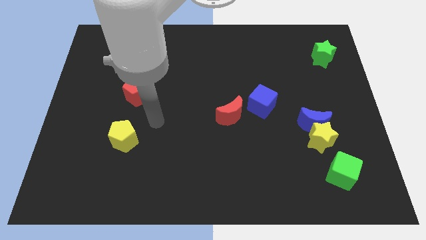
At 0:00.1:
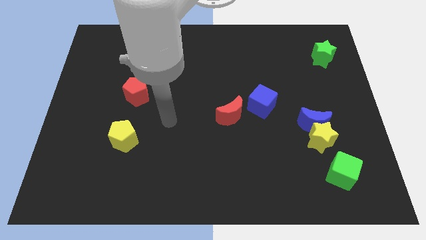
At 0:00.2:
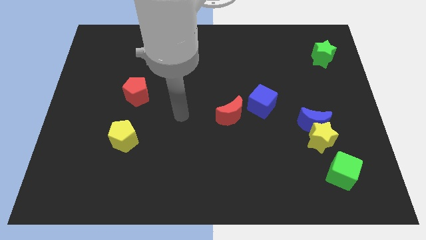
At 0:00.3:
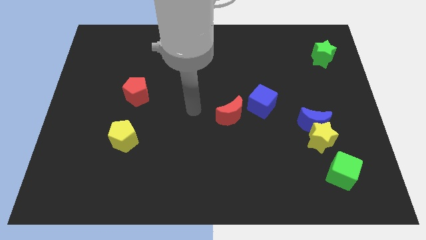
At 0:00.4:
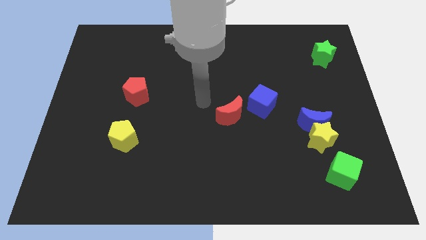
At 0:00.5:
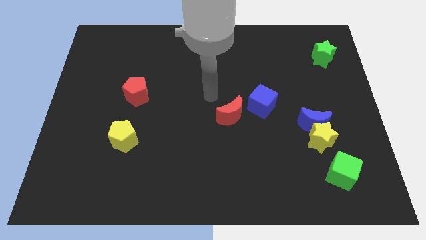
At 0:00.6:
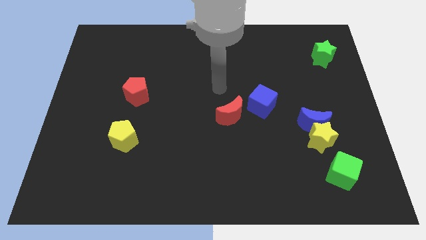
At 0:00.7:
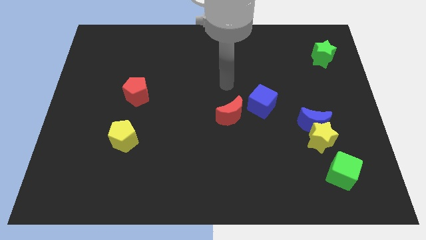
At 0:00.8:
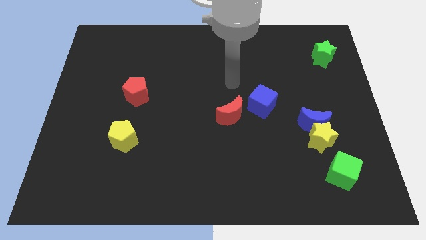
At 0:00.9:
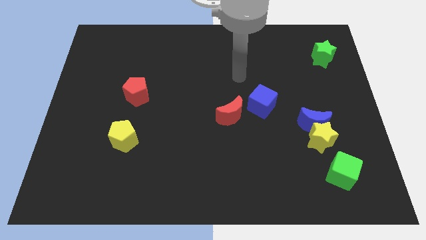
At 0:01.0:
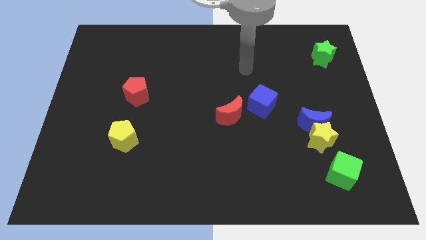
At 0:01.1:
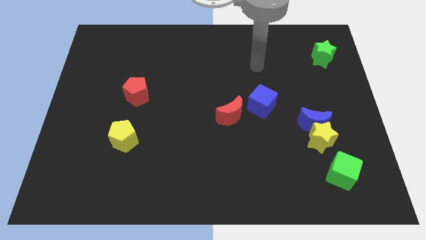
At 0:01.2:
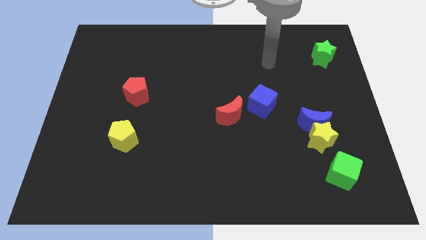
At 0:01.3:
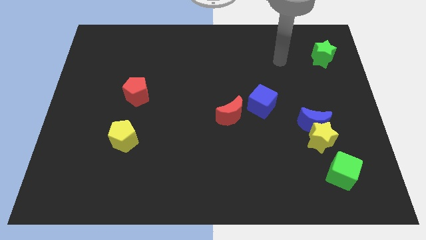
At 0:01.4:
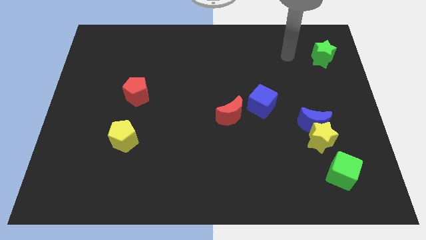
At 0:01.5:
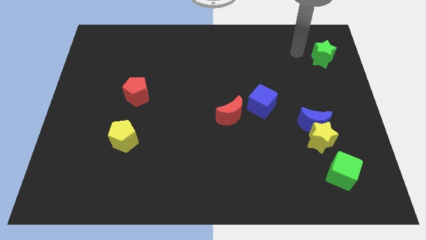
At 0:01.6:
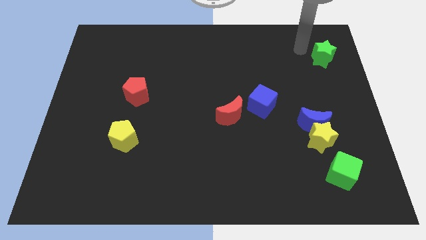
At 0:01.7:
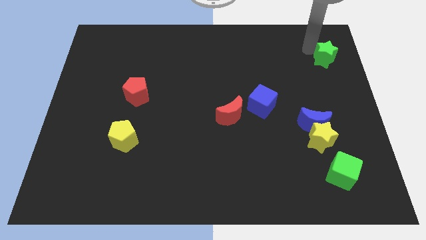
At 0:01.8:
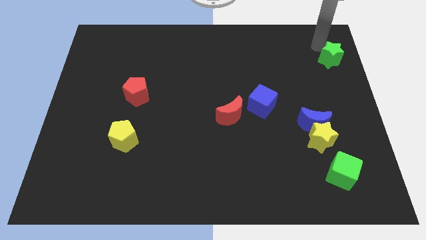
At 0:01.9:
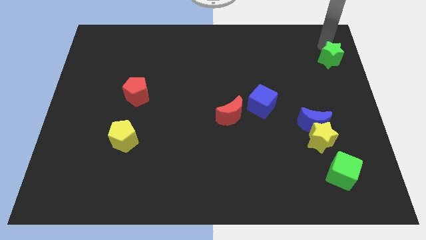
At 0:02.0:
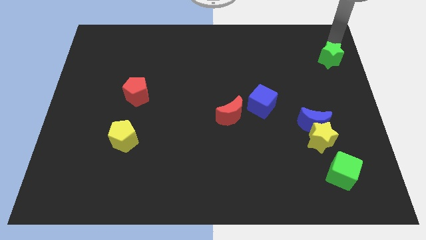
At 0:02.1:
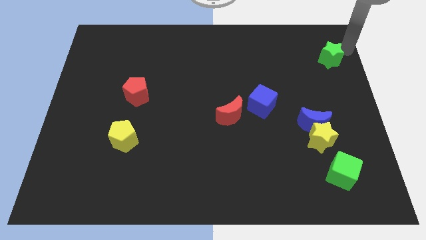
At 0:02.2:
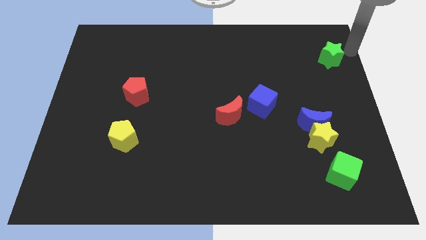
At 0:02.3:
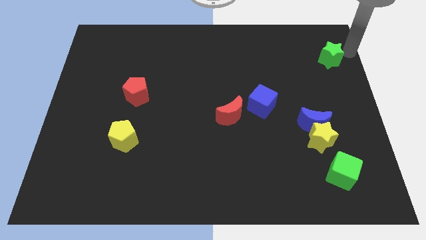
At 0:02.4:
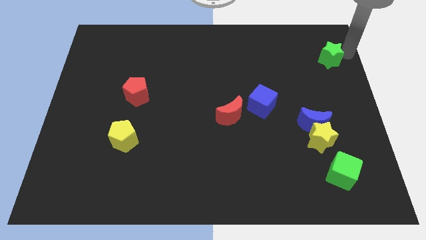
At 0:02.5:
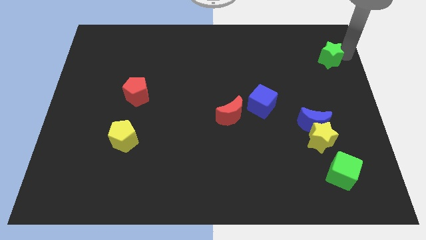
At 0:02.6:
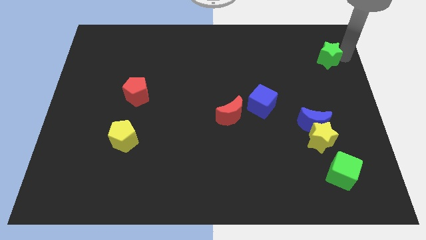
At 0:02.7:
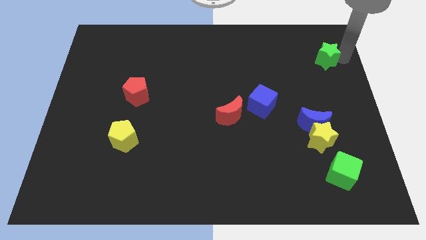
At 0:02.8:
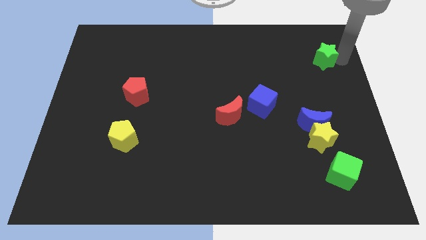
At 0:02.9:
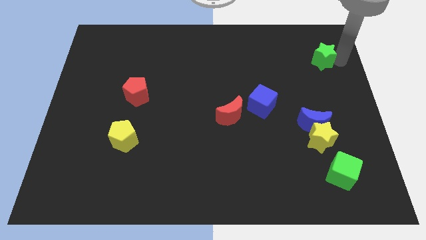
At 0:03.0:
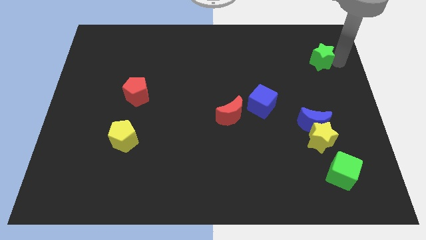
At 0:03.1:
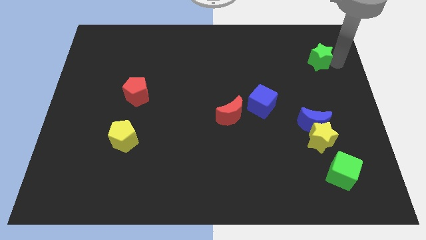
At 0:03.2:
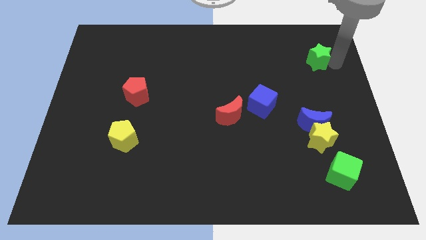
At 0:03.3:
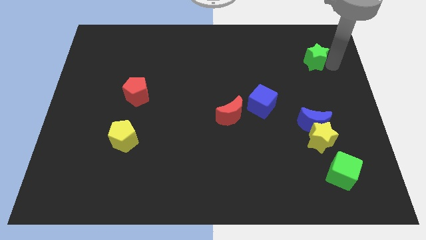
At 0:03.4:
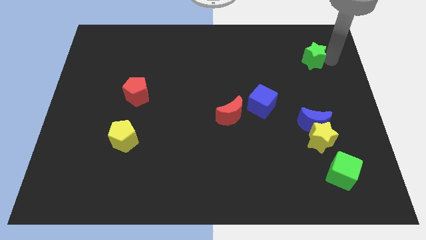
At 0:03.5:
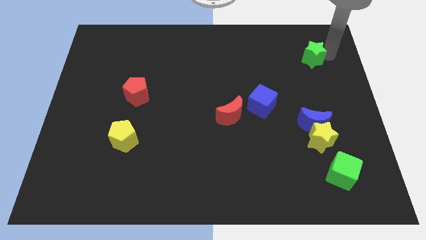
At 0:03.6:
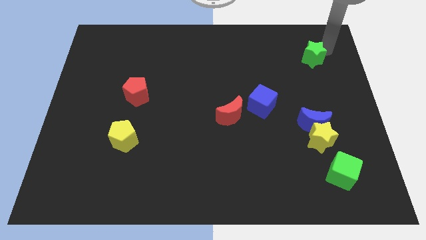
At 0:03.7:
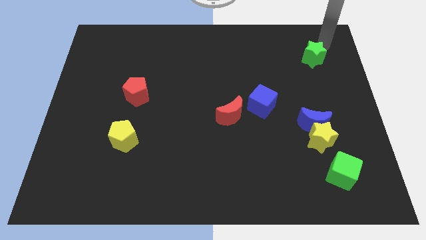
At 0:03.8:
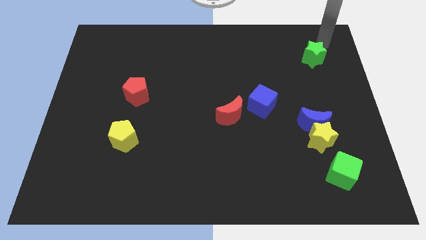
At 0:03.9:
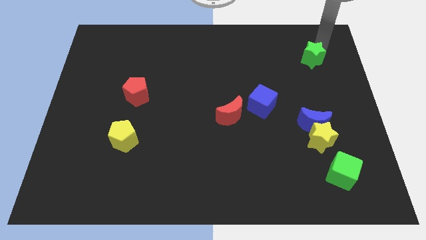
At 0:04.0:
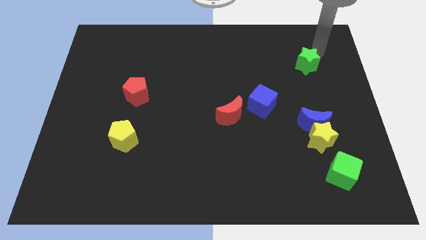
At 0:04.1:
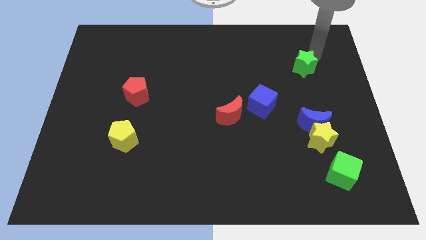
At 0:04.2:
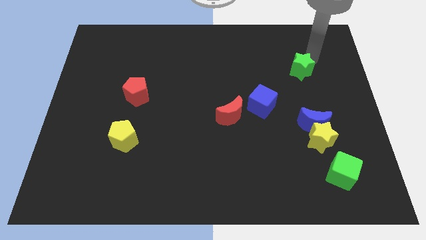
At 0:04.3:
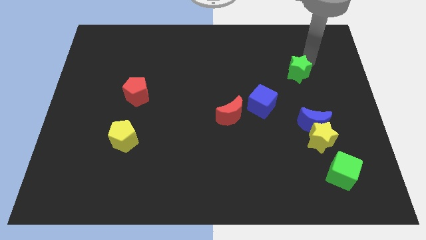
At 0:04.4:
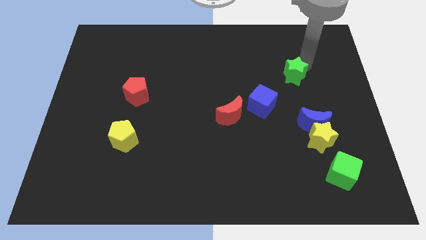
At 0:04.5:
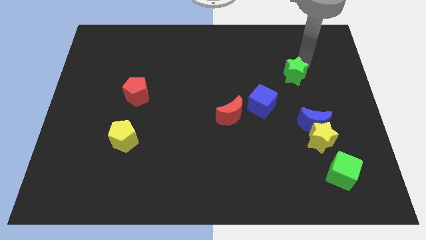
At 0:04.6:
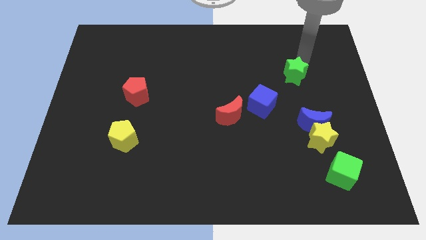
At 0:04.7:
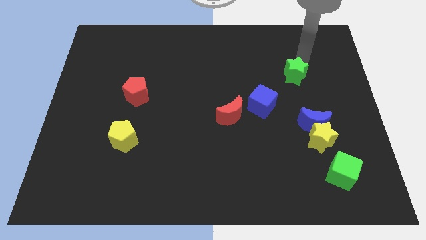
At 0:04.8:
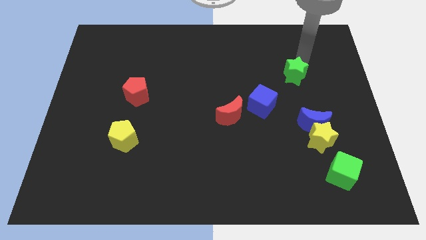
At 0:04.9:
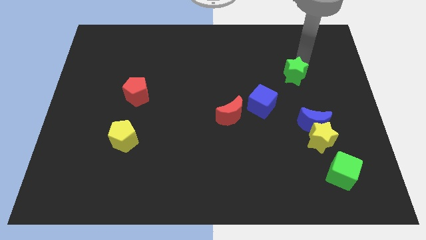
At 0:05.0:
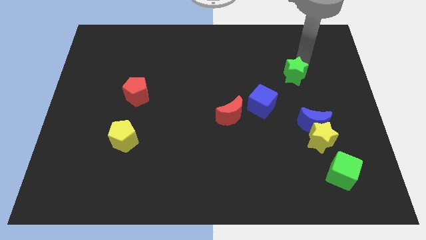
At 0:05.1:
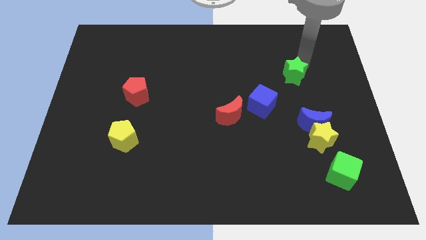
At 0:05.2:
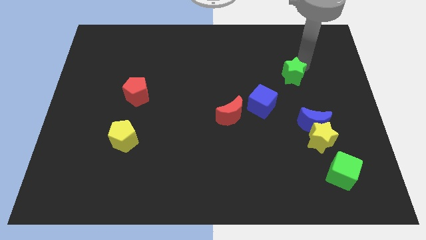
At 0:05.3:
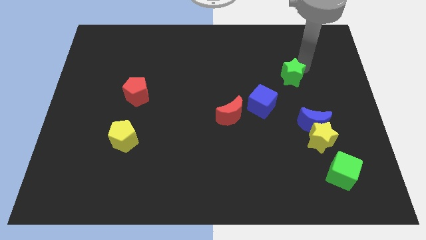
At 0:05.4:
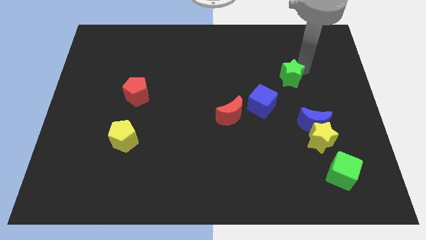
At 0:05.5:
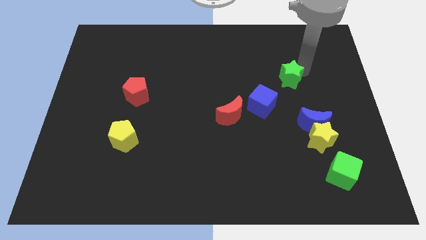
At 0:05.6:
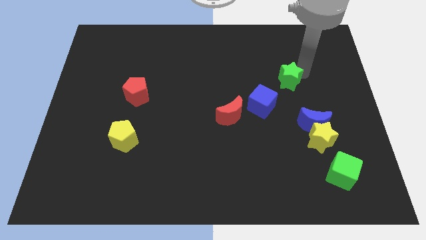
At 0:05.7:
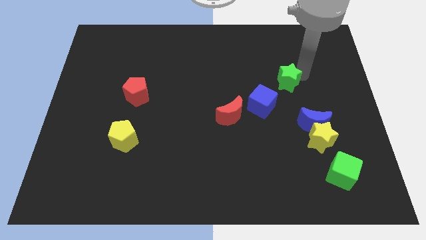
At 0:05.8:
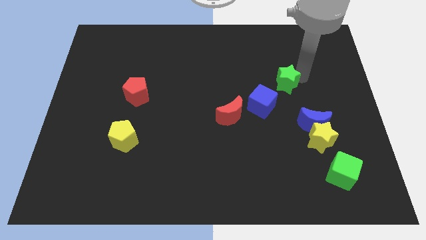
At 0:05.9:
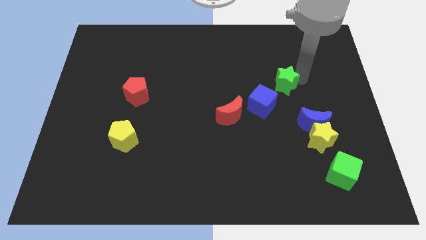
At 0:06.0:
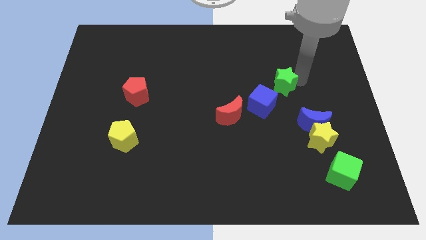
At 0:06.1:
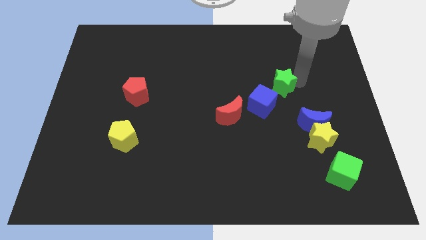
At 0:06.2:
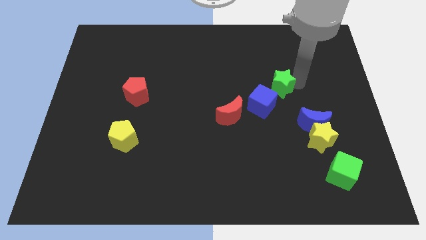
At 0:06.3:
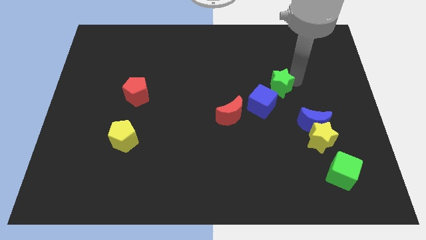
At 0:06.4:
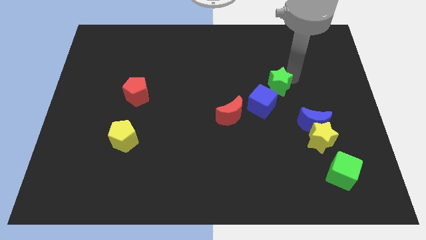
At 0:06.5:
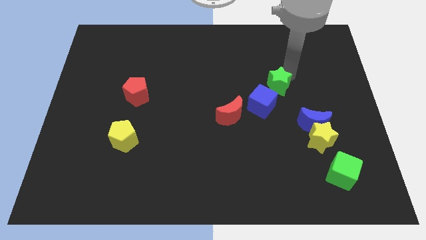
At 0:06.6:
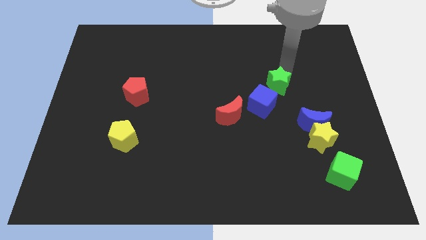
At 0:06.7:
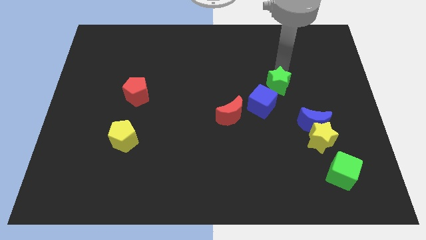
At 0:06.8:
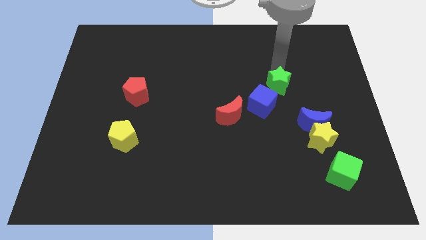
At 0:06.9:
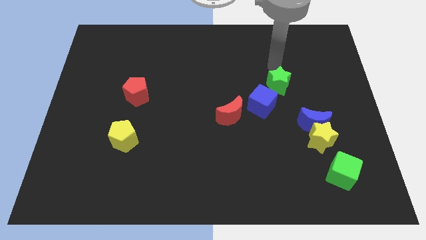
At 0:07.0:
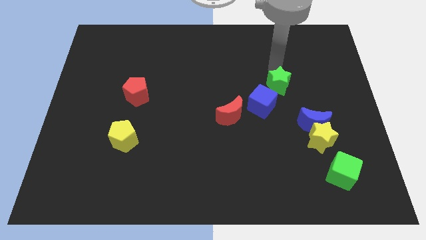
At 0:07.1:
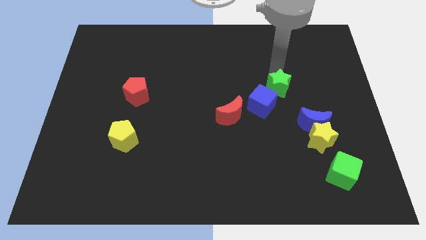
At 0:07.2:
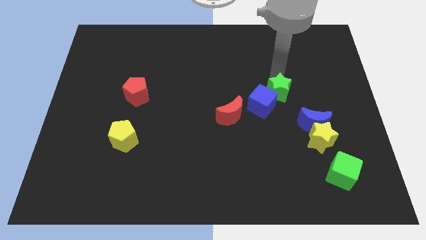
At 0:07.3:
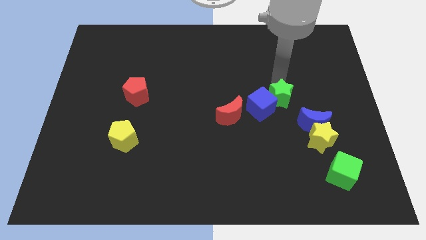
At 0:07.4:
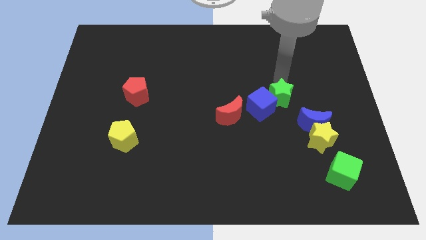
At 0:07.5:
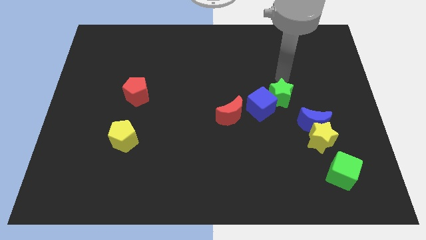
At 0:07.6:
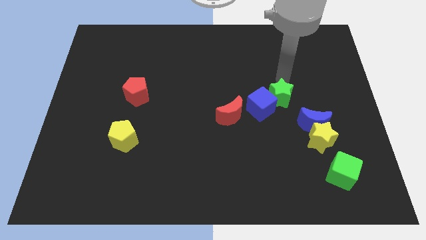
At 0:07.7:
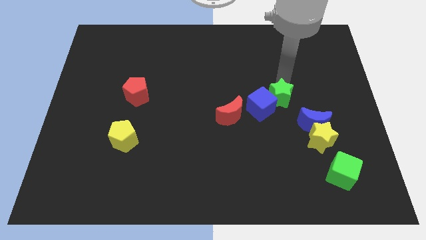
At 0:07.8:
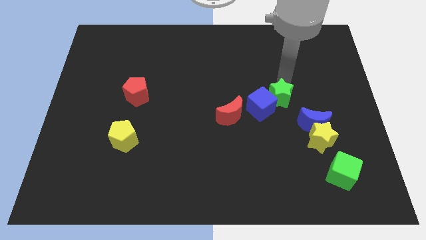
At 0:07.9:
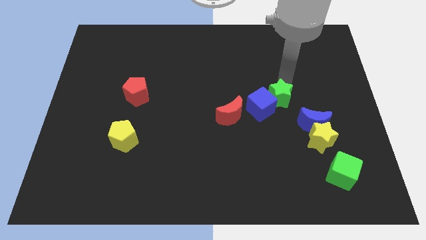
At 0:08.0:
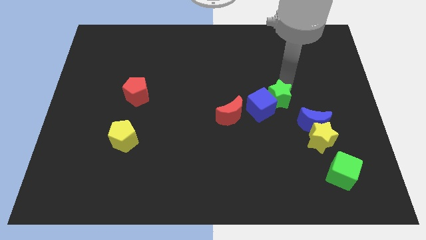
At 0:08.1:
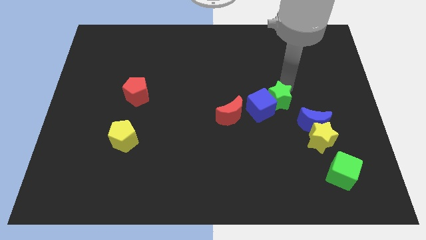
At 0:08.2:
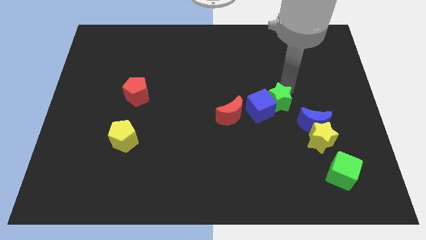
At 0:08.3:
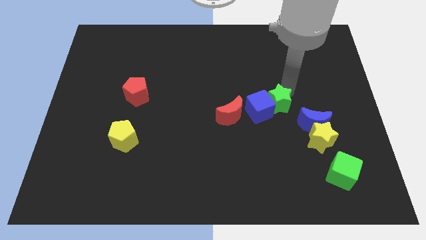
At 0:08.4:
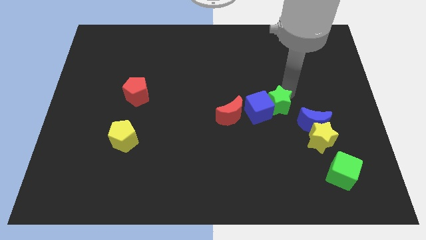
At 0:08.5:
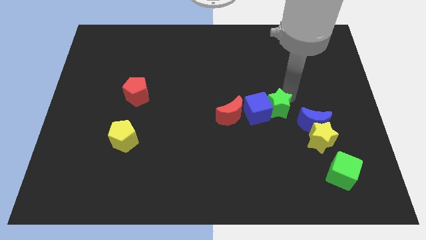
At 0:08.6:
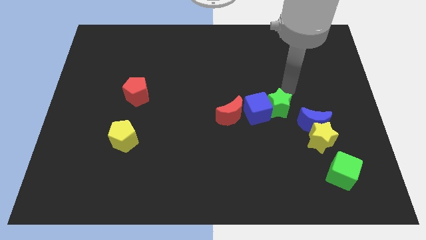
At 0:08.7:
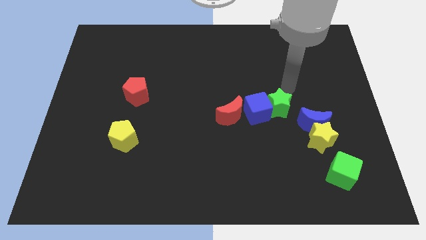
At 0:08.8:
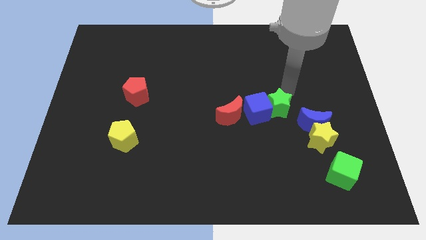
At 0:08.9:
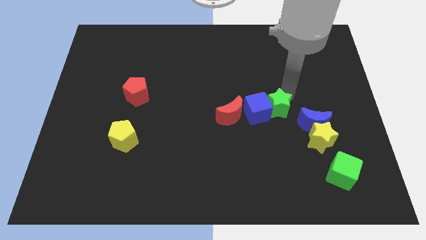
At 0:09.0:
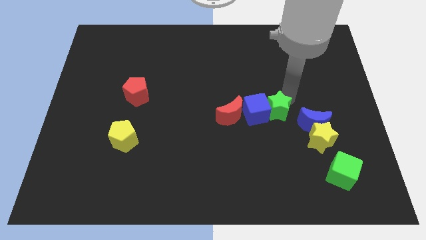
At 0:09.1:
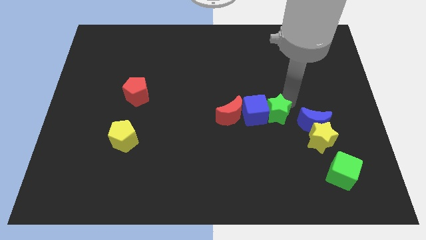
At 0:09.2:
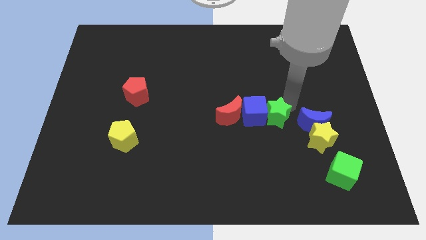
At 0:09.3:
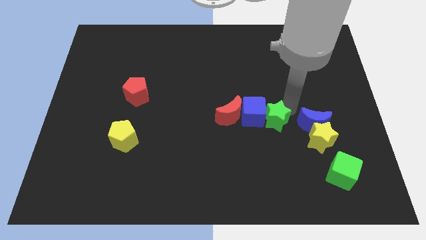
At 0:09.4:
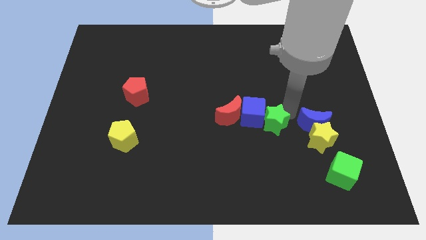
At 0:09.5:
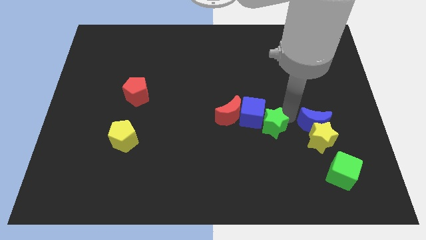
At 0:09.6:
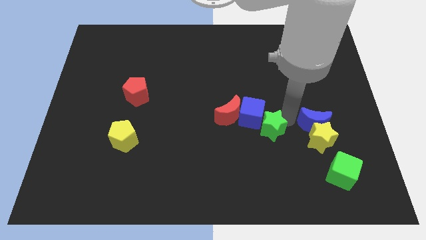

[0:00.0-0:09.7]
move the green star to the bottom of the blue cube
